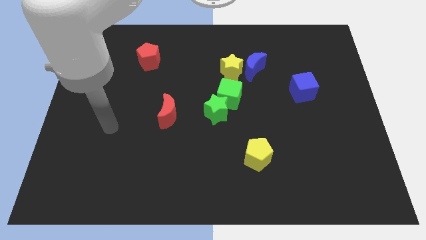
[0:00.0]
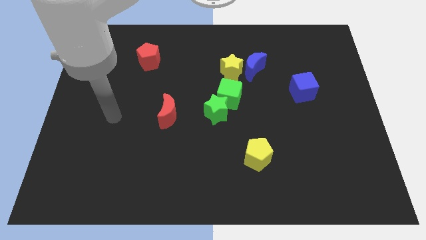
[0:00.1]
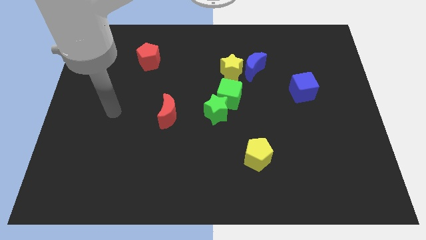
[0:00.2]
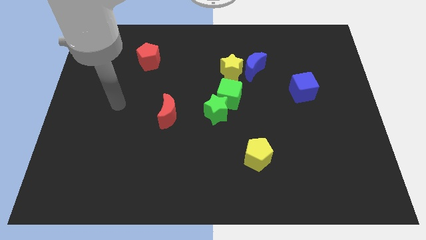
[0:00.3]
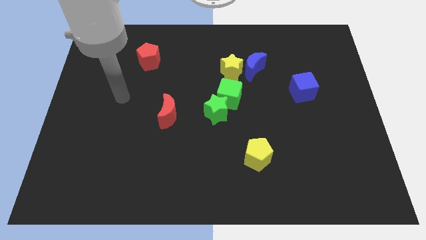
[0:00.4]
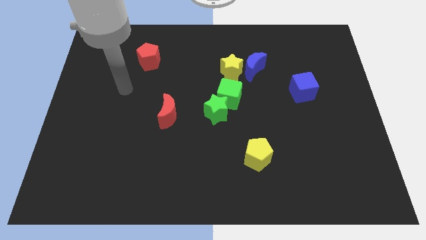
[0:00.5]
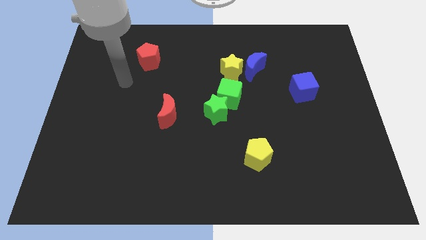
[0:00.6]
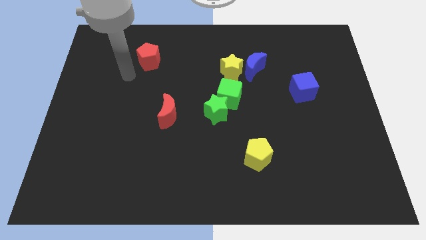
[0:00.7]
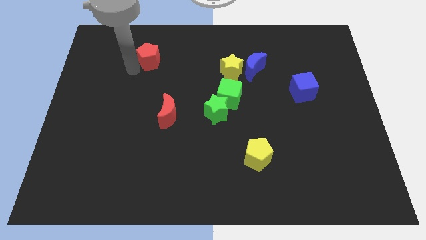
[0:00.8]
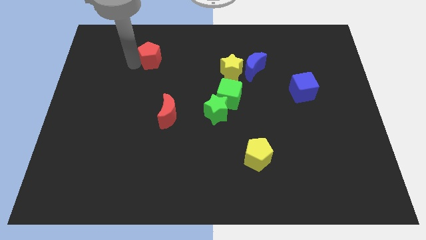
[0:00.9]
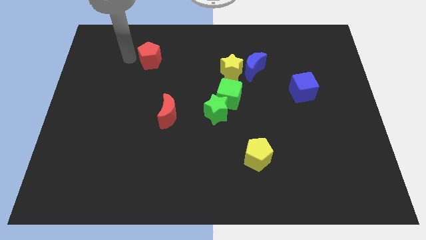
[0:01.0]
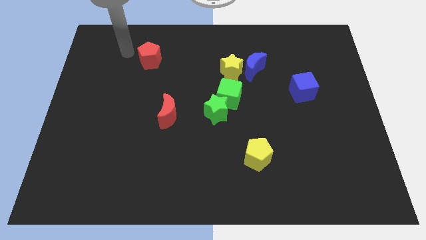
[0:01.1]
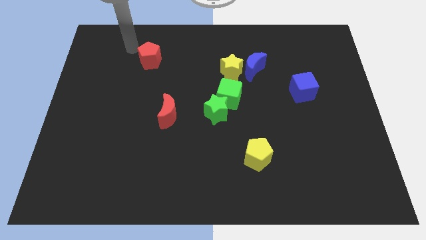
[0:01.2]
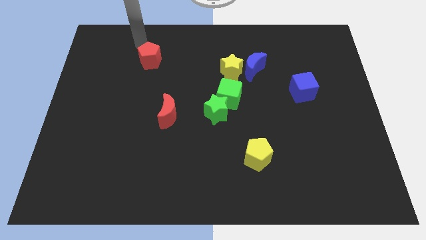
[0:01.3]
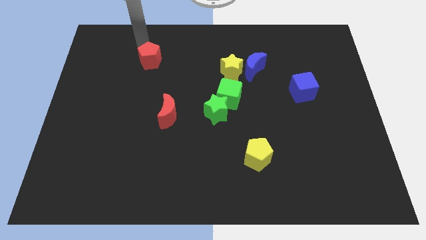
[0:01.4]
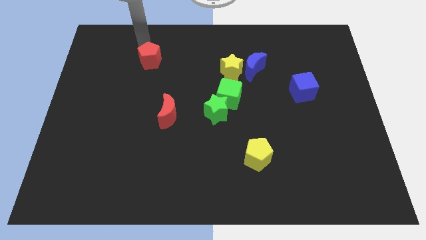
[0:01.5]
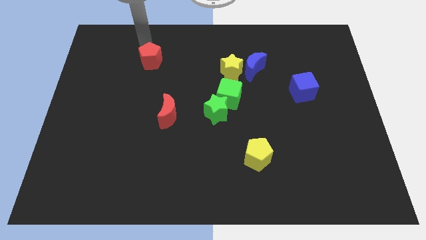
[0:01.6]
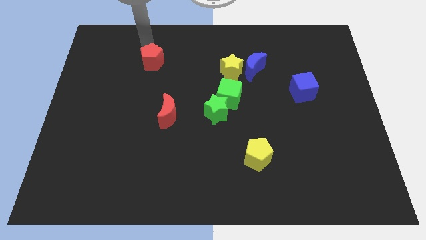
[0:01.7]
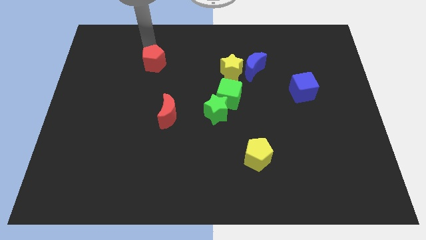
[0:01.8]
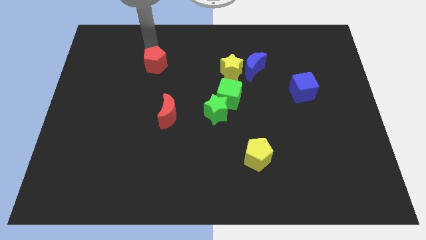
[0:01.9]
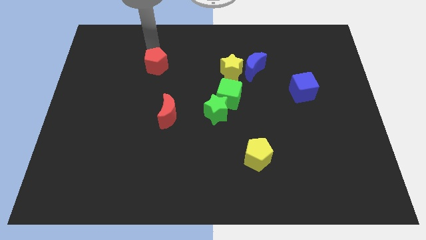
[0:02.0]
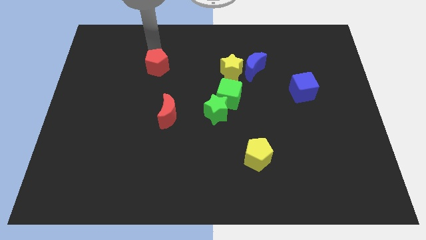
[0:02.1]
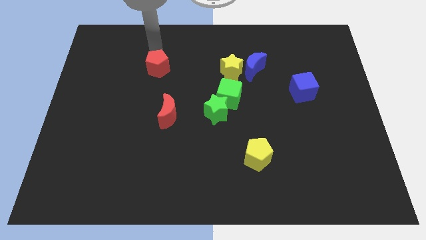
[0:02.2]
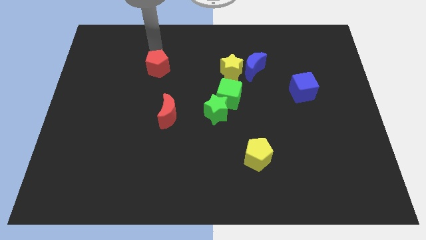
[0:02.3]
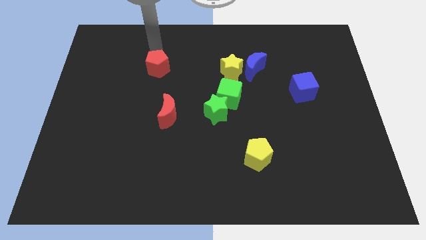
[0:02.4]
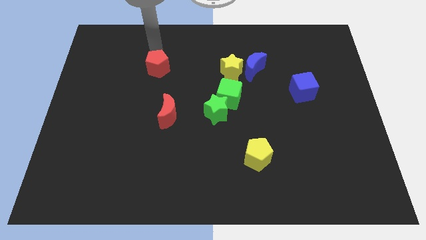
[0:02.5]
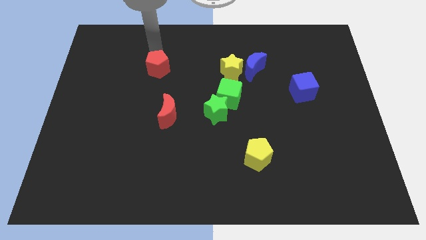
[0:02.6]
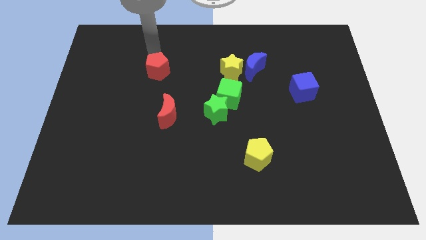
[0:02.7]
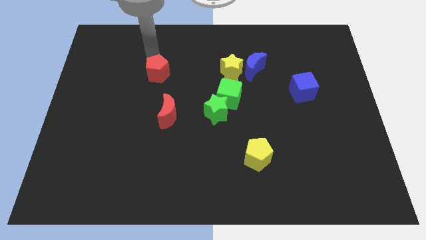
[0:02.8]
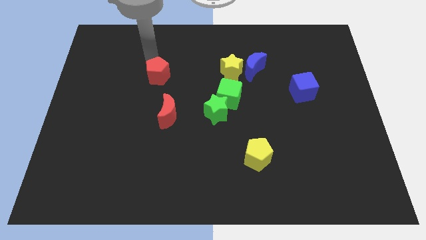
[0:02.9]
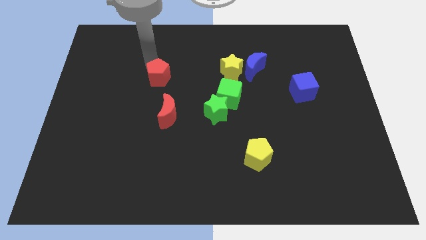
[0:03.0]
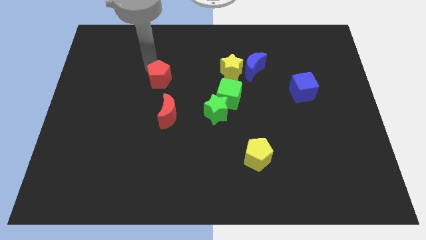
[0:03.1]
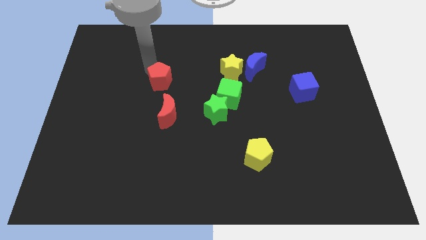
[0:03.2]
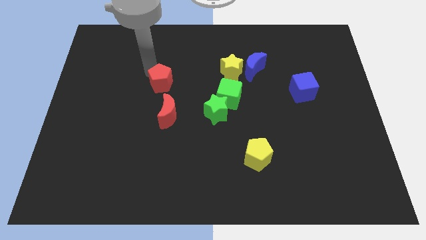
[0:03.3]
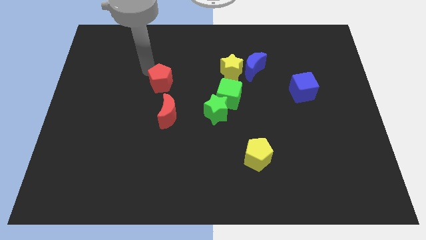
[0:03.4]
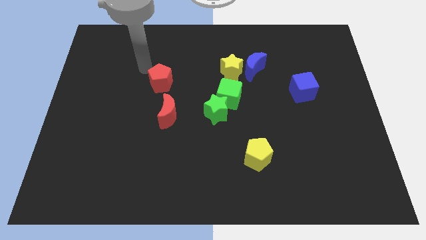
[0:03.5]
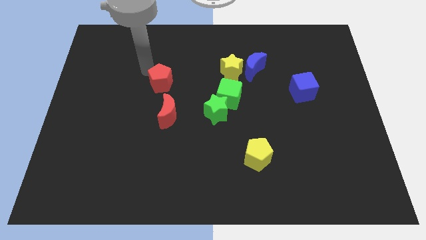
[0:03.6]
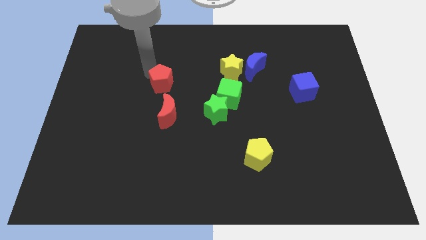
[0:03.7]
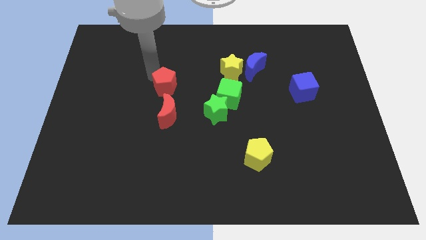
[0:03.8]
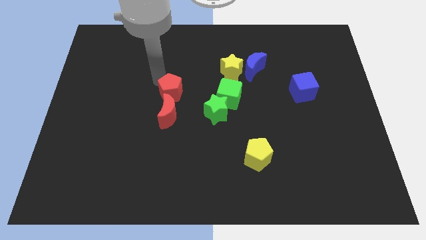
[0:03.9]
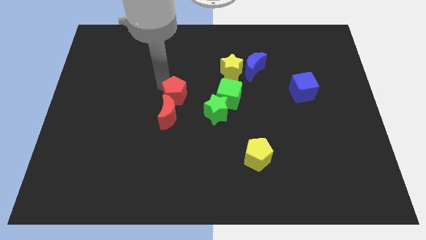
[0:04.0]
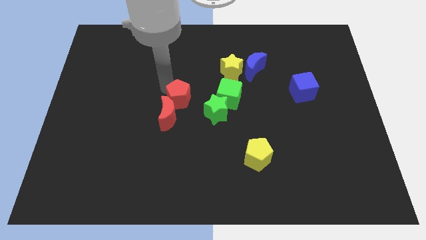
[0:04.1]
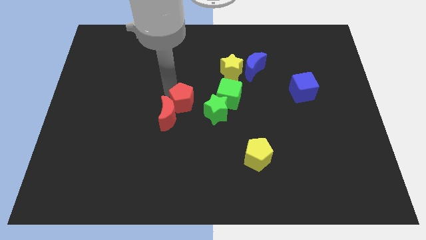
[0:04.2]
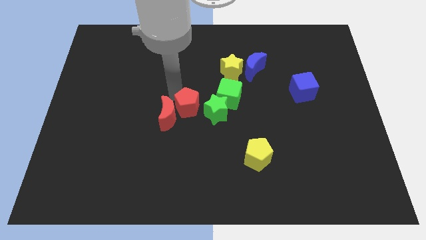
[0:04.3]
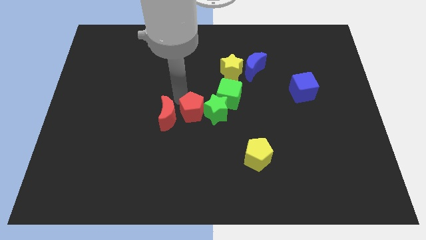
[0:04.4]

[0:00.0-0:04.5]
push the red pentagon diagonally downwards and right

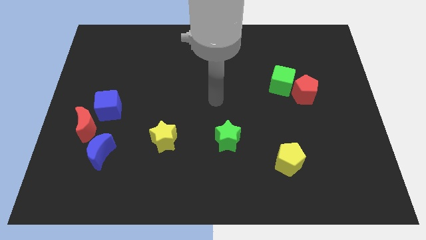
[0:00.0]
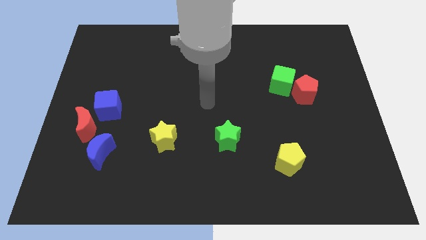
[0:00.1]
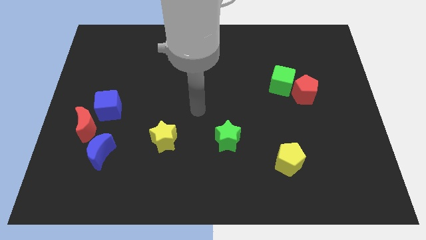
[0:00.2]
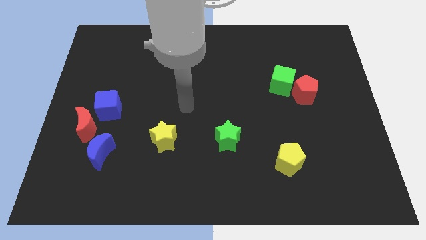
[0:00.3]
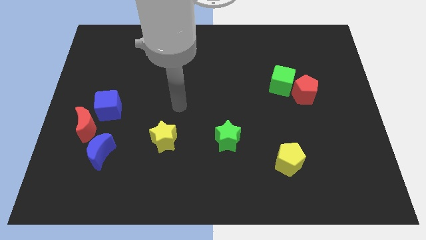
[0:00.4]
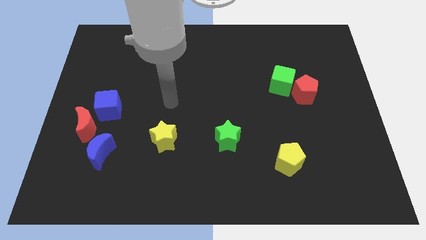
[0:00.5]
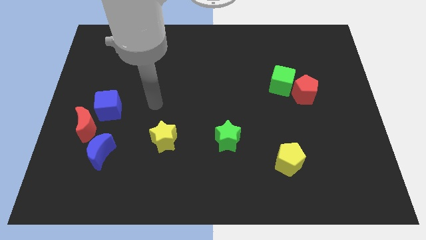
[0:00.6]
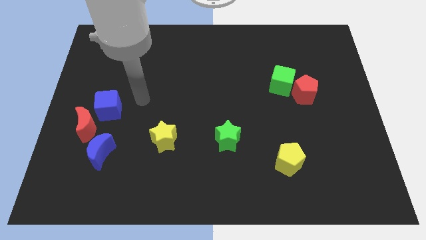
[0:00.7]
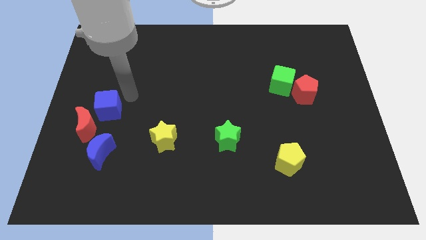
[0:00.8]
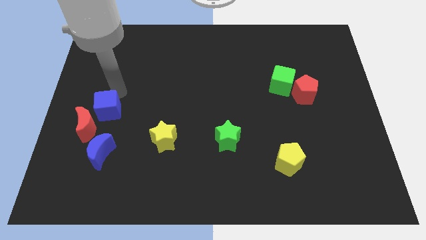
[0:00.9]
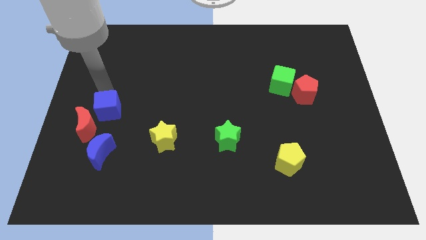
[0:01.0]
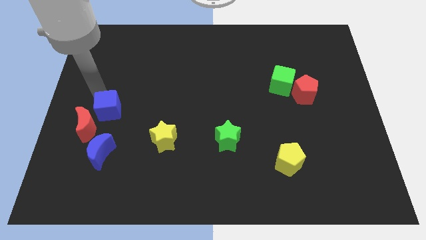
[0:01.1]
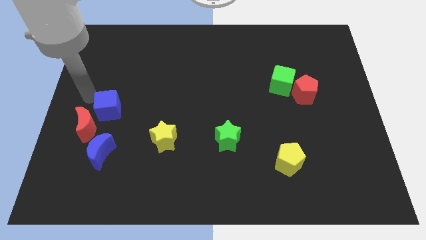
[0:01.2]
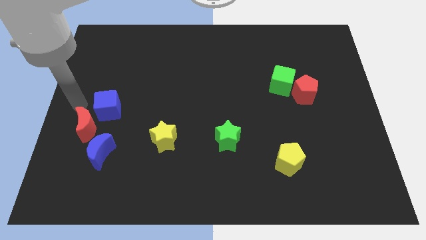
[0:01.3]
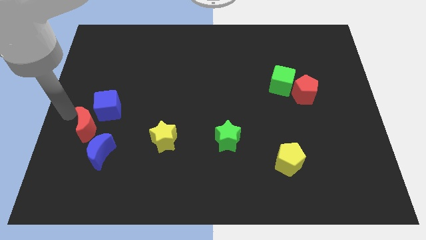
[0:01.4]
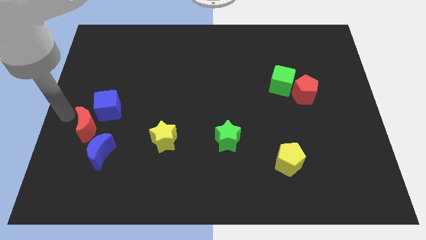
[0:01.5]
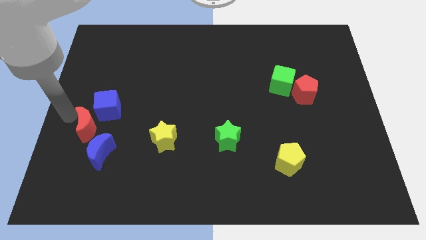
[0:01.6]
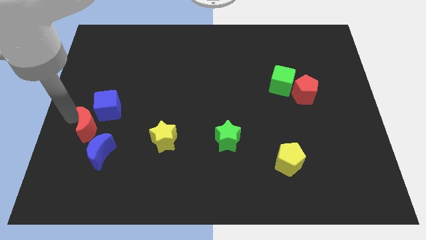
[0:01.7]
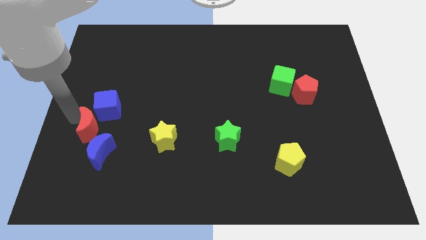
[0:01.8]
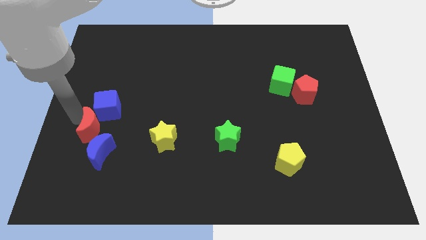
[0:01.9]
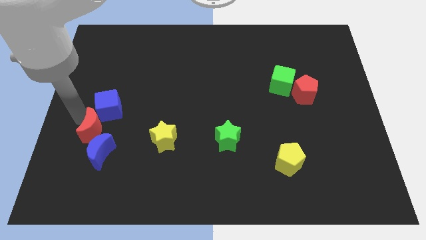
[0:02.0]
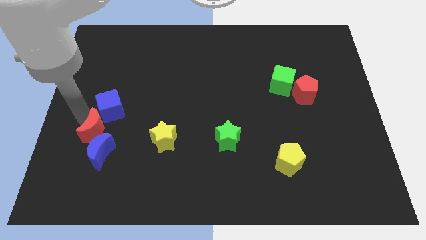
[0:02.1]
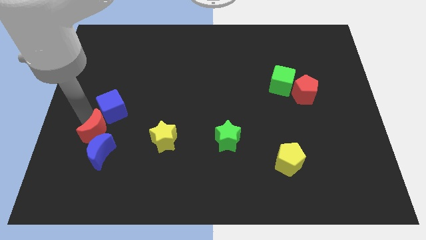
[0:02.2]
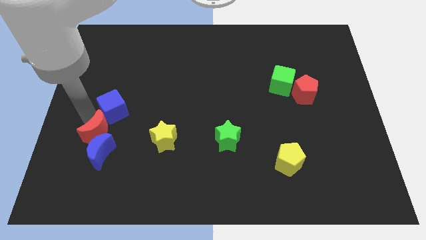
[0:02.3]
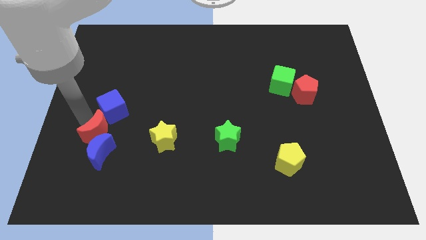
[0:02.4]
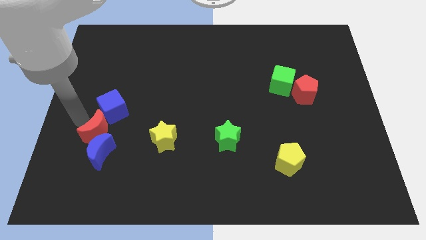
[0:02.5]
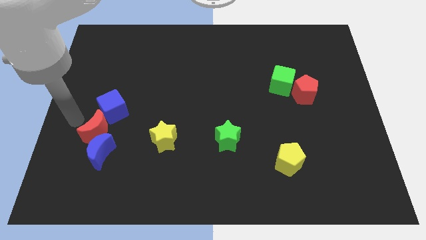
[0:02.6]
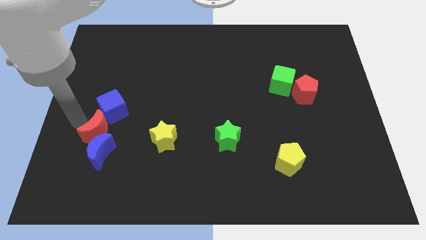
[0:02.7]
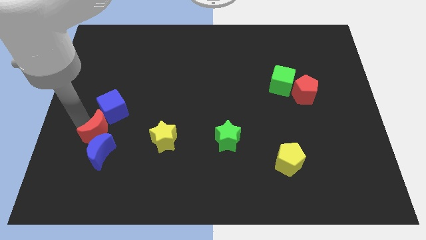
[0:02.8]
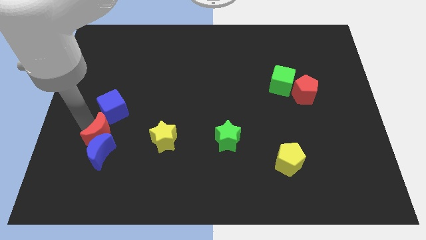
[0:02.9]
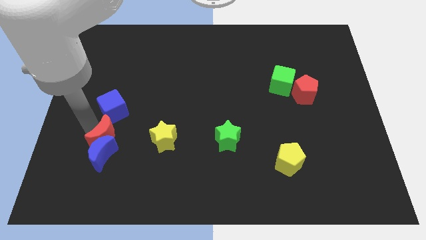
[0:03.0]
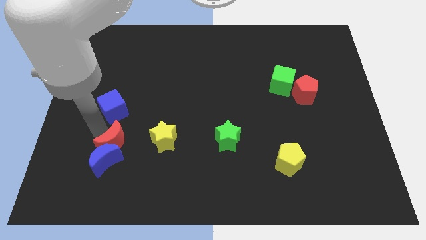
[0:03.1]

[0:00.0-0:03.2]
push the red moon down and to the right a little bit

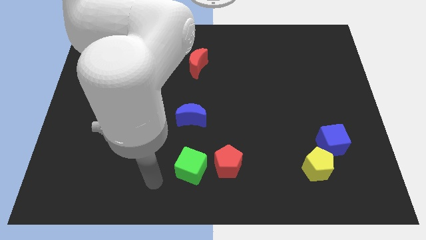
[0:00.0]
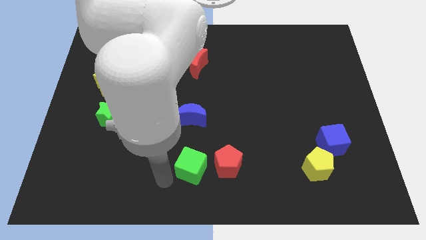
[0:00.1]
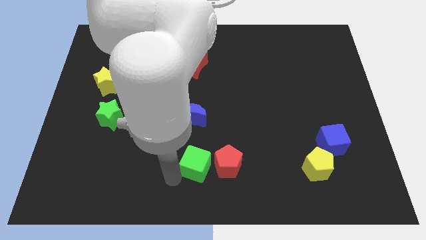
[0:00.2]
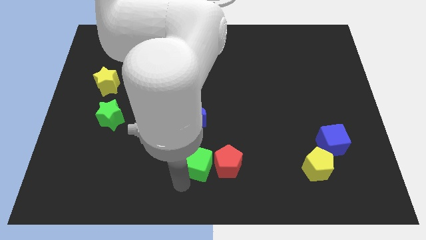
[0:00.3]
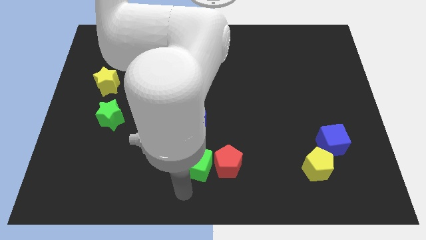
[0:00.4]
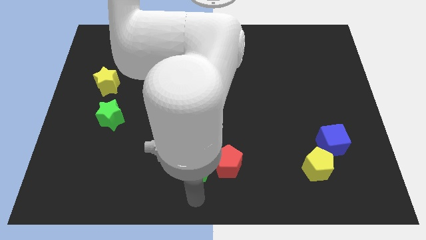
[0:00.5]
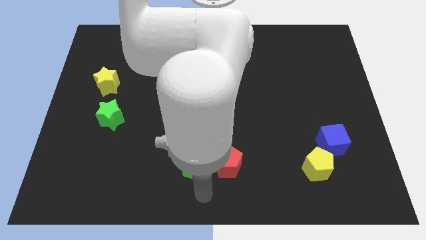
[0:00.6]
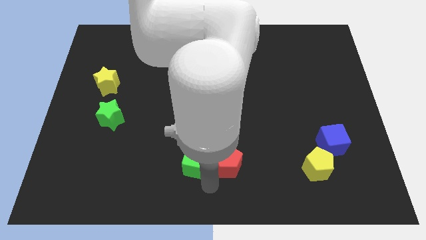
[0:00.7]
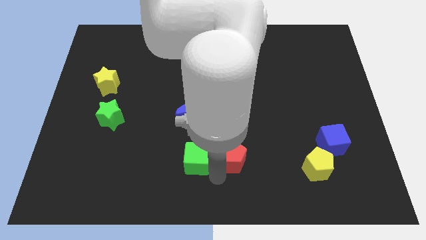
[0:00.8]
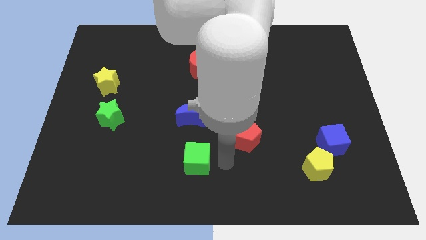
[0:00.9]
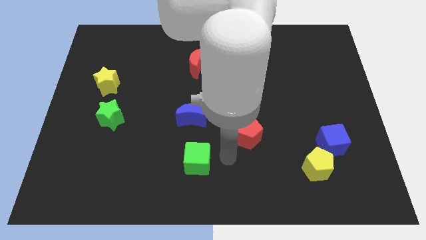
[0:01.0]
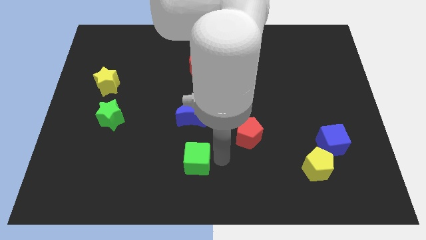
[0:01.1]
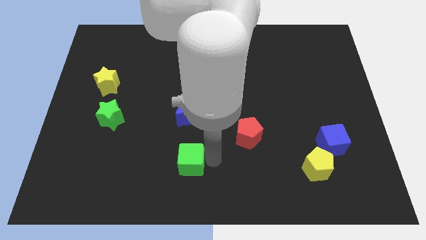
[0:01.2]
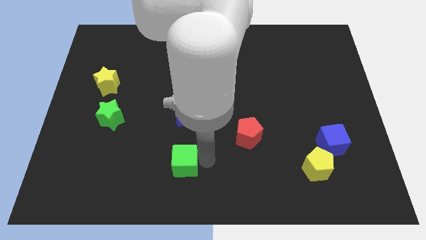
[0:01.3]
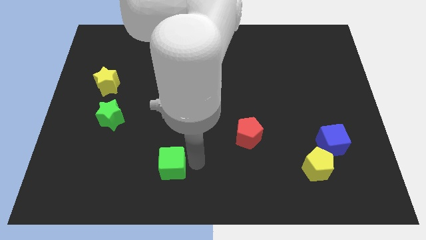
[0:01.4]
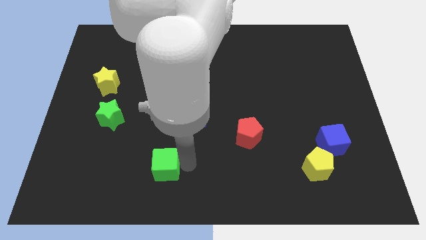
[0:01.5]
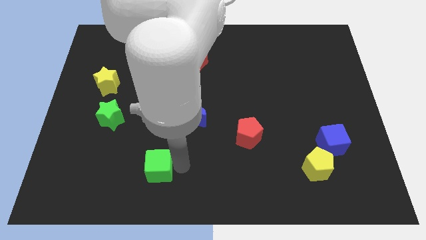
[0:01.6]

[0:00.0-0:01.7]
slightly slide the green cube left
